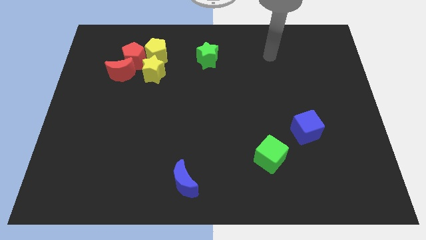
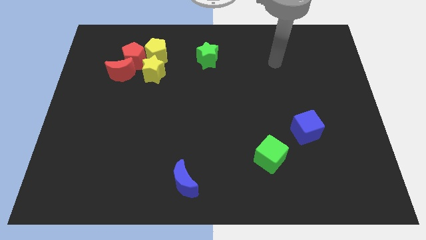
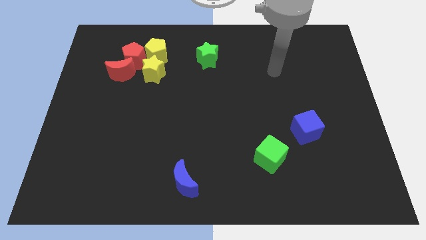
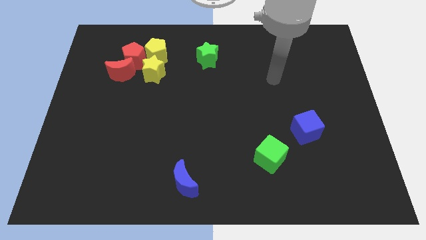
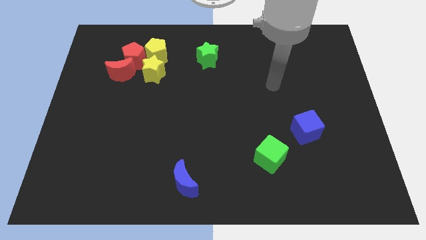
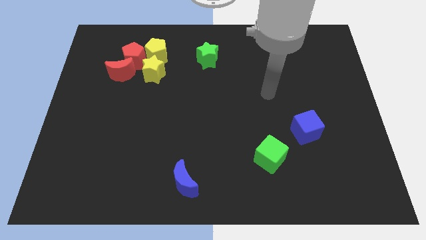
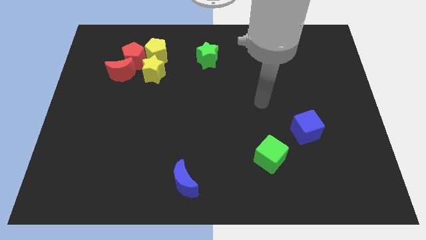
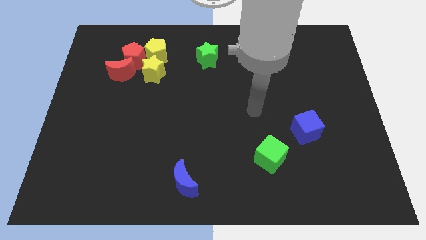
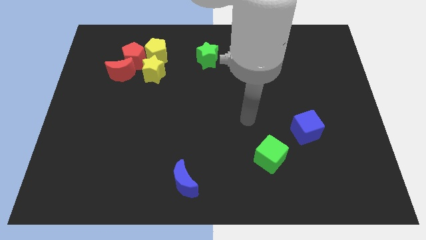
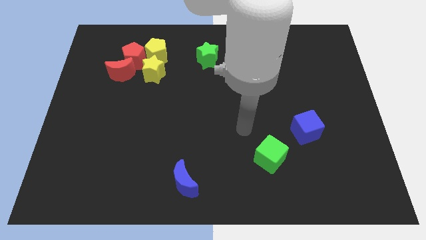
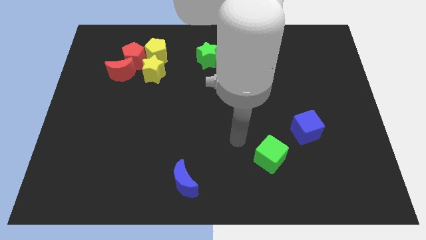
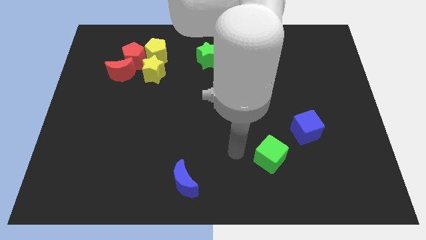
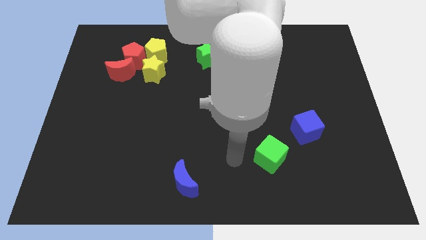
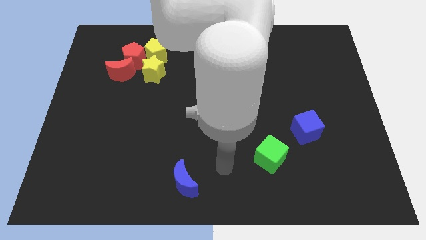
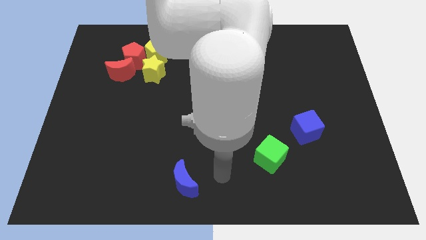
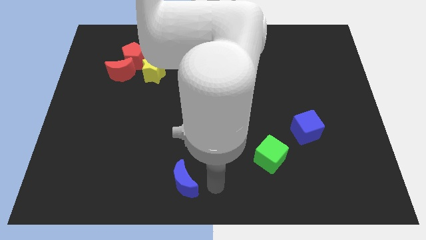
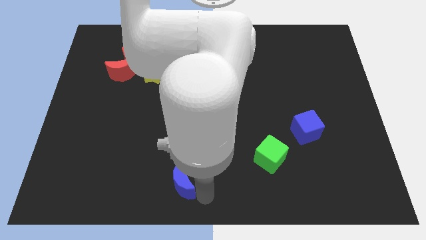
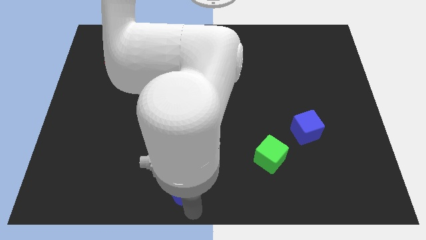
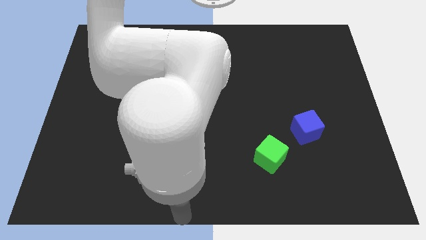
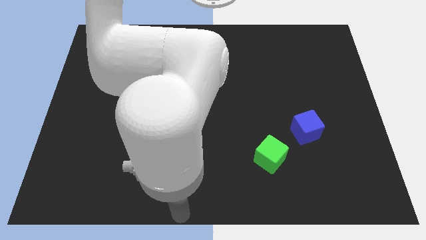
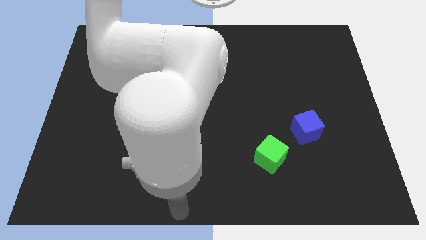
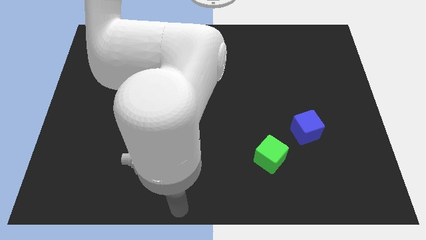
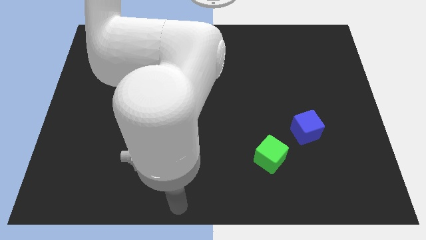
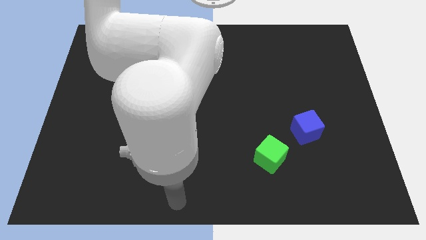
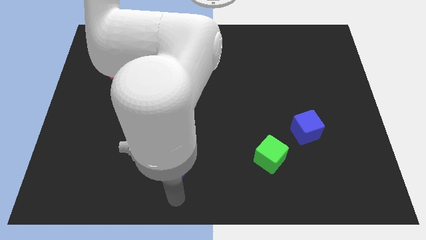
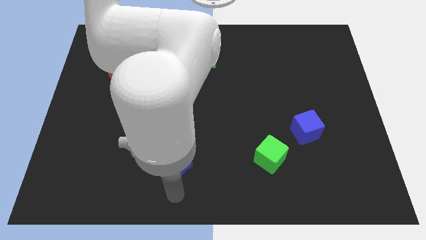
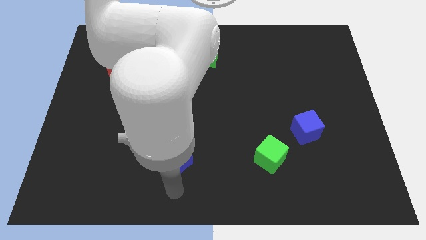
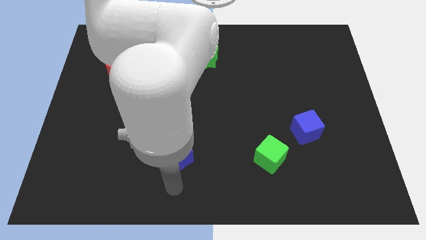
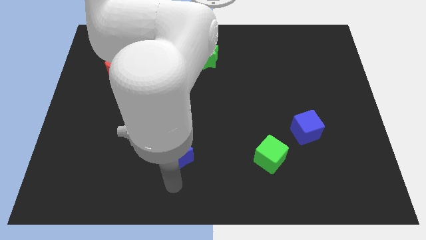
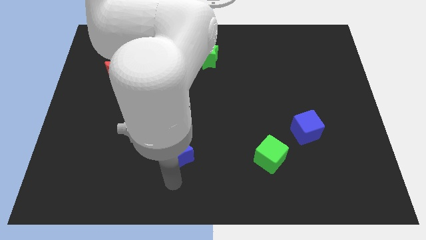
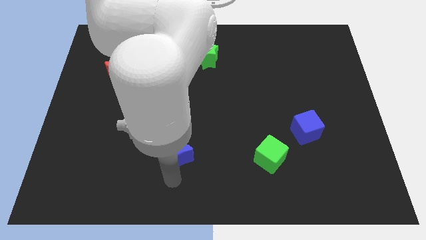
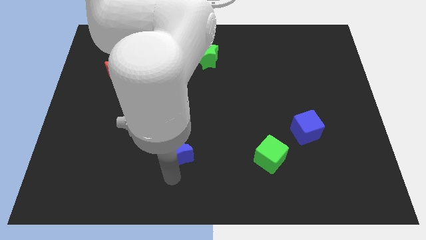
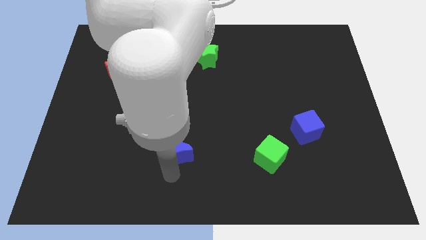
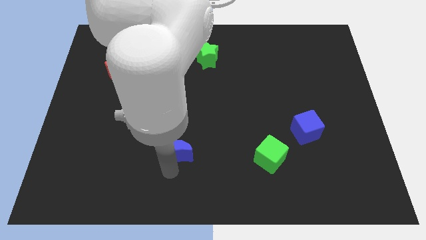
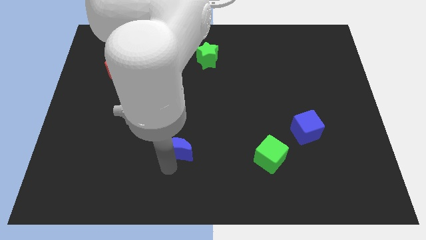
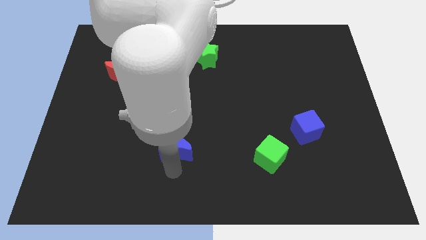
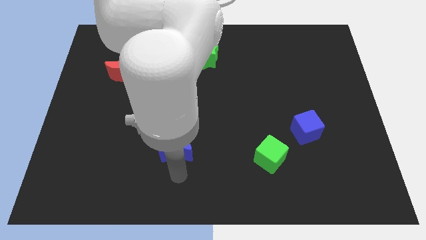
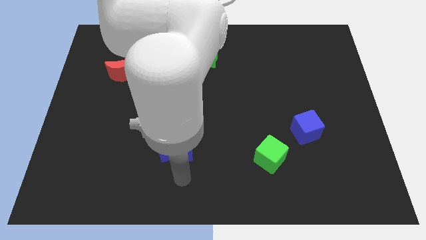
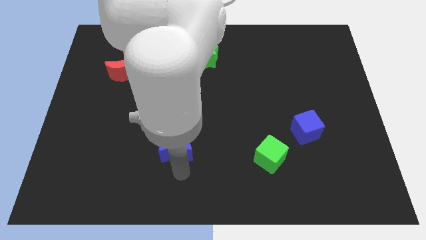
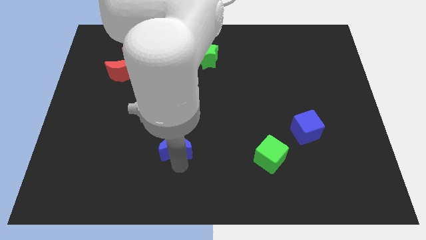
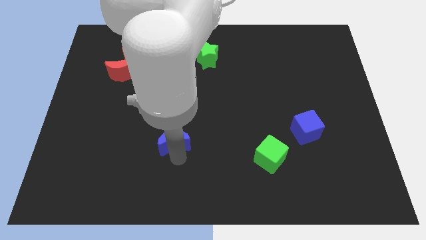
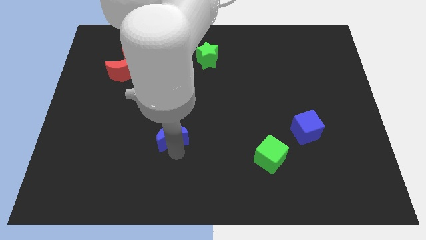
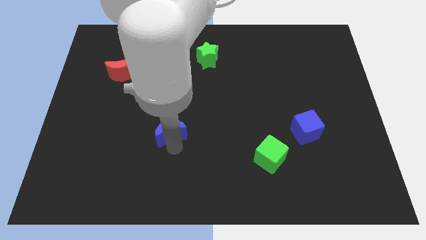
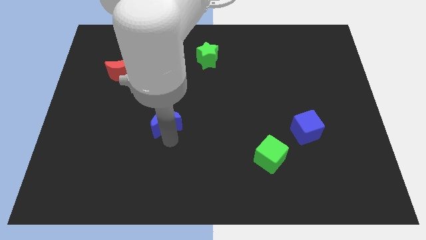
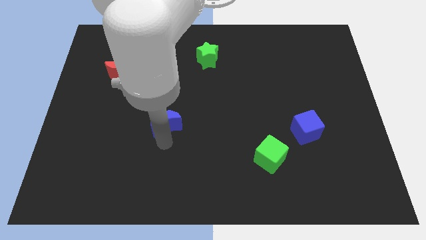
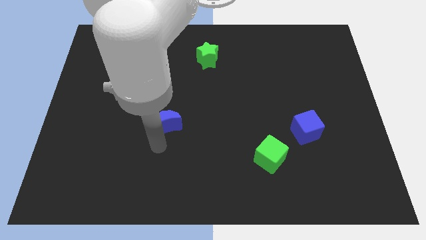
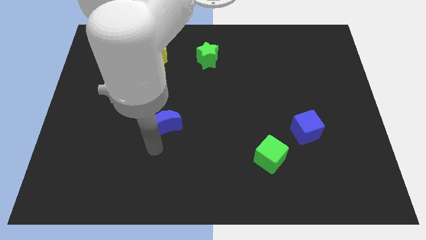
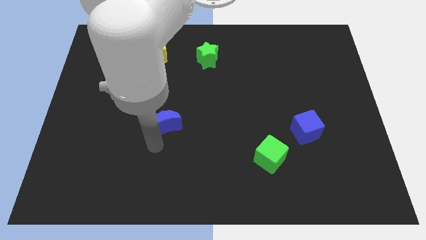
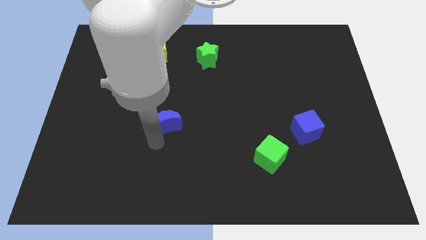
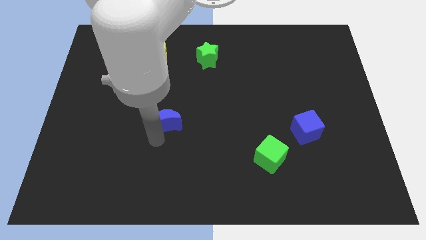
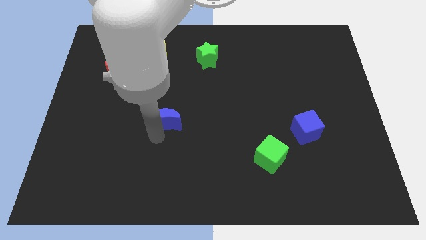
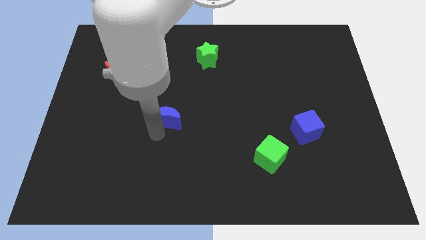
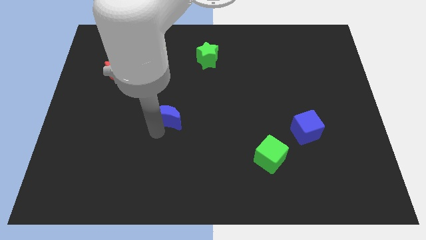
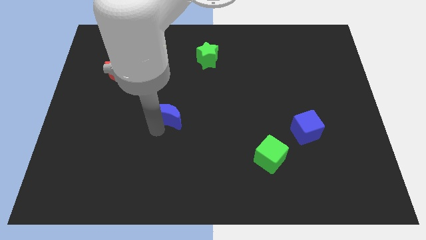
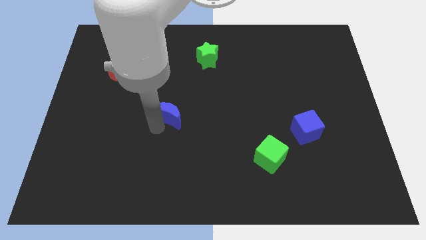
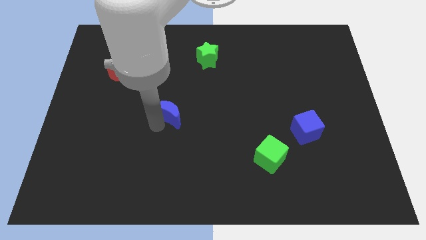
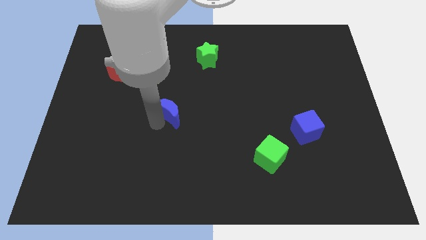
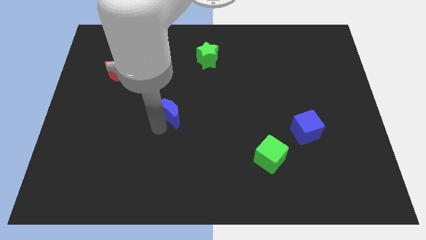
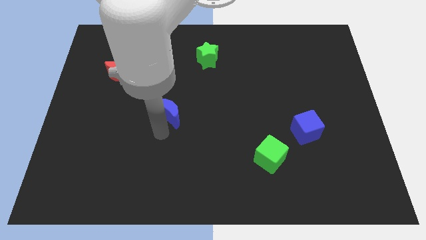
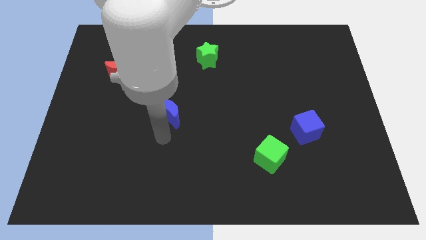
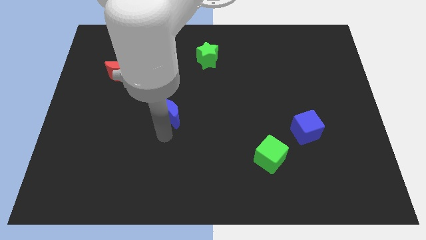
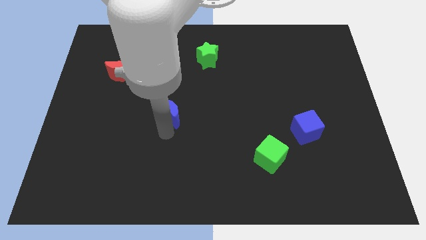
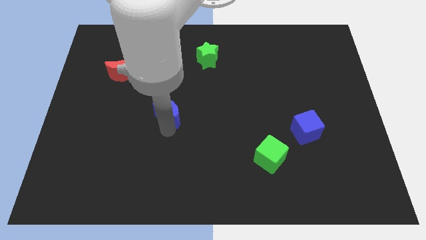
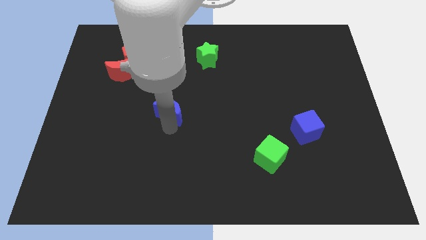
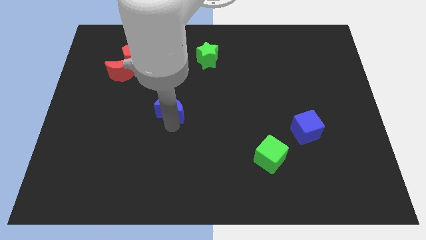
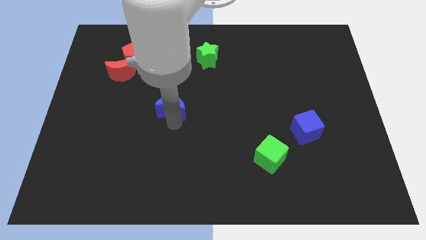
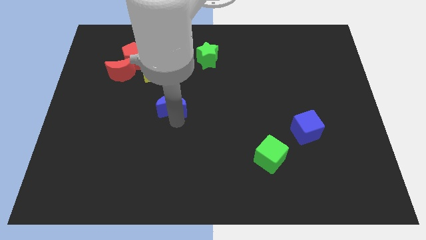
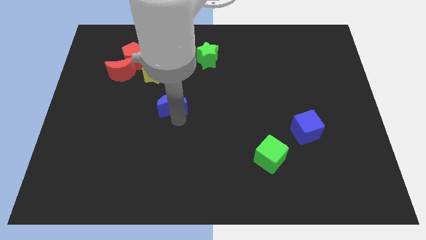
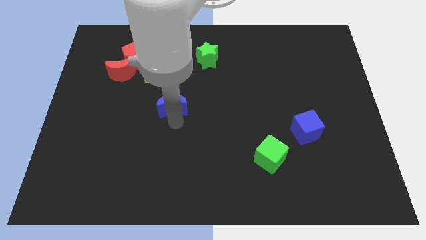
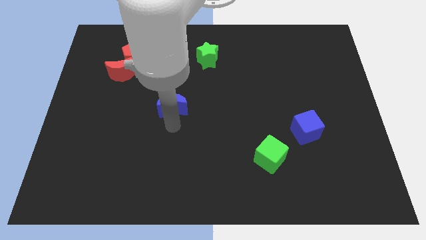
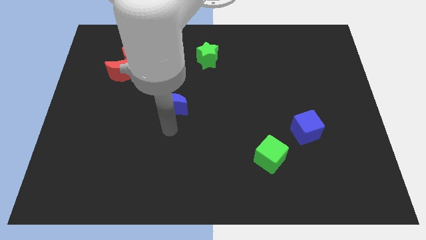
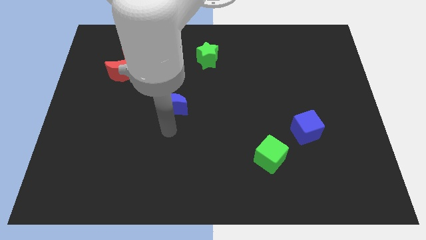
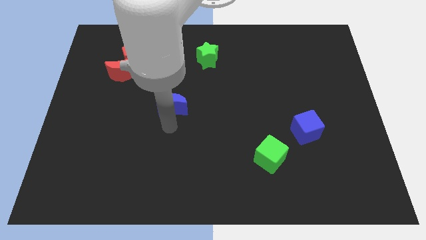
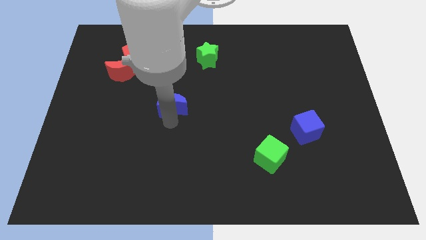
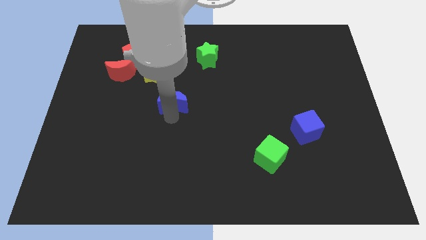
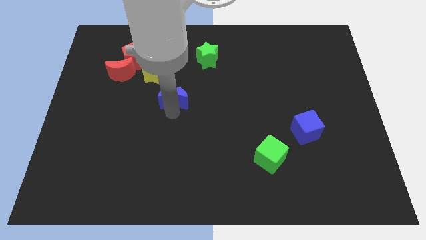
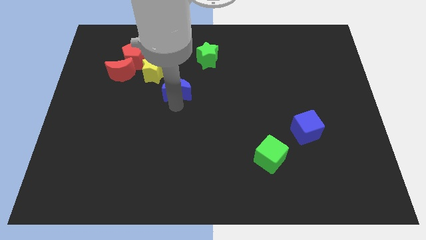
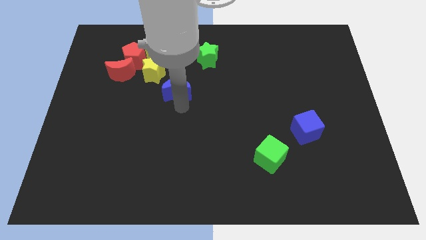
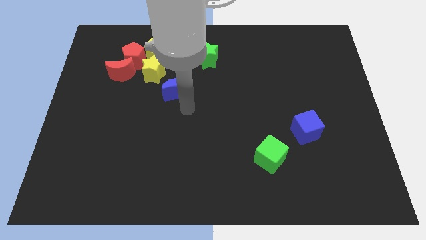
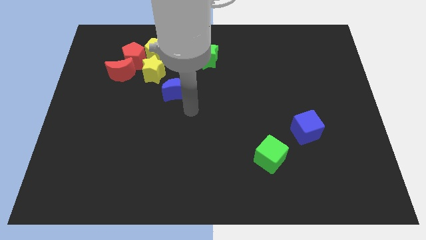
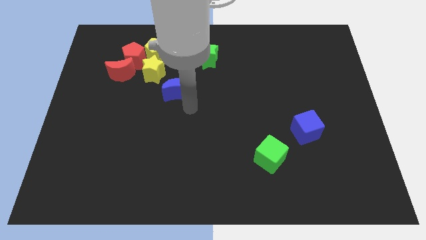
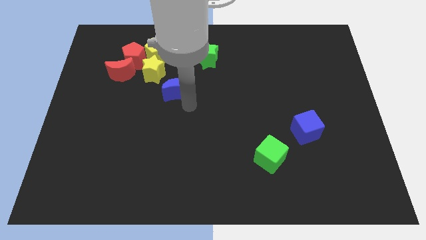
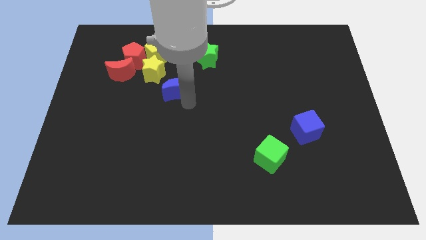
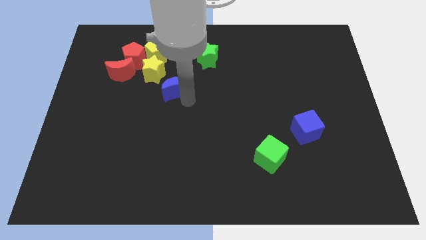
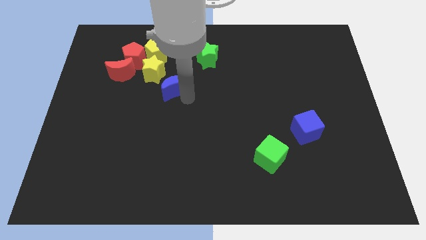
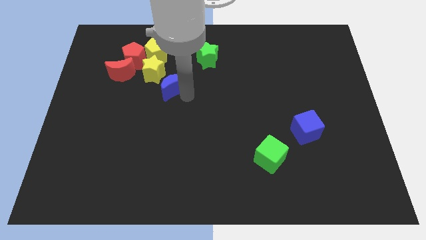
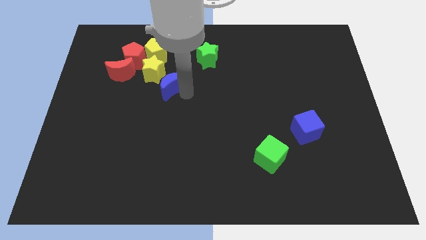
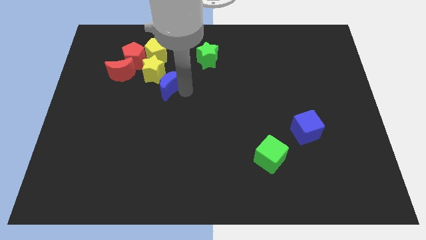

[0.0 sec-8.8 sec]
move the blue moon right of the red moon
